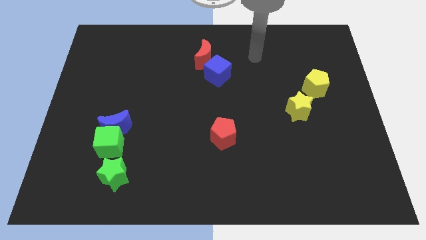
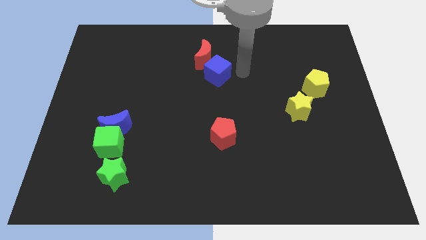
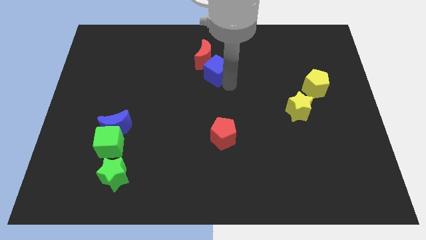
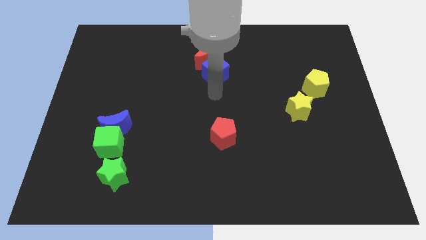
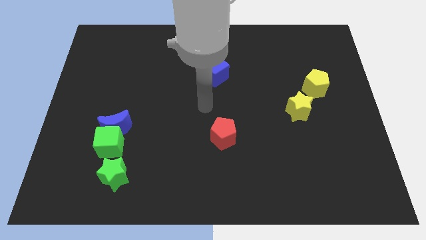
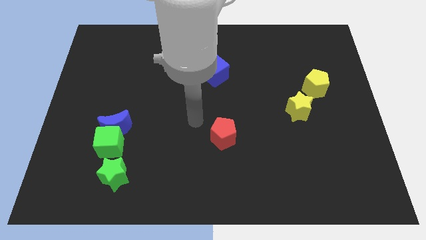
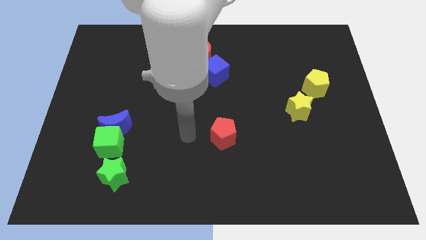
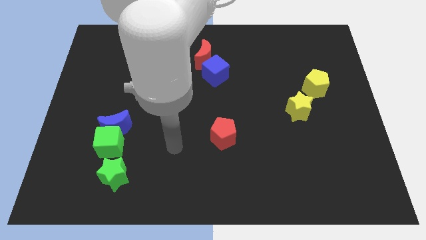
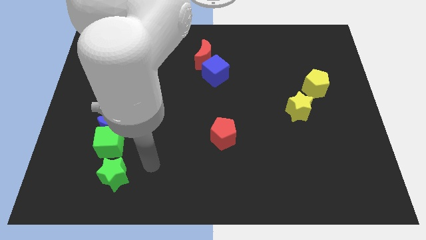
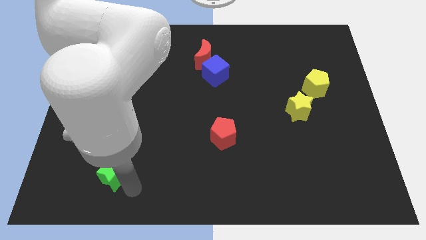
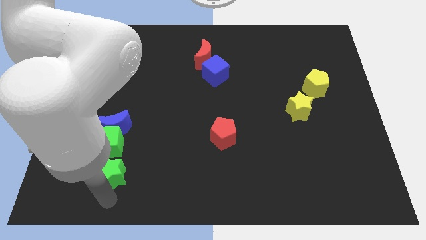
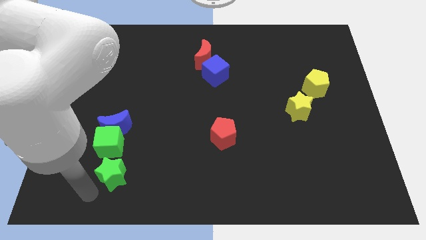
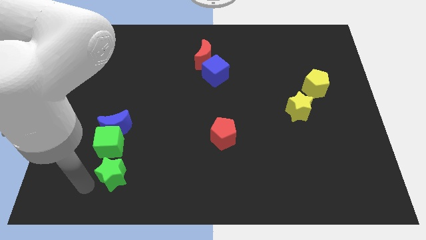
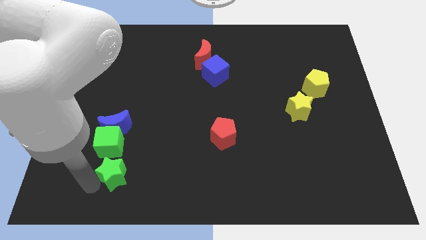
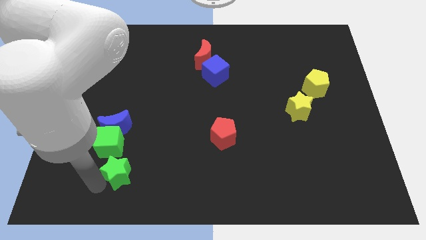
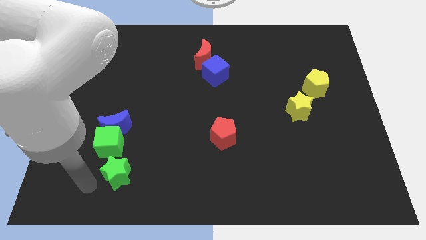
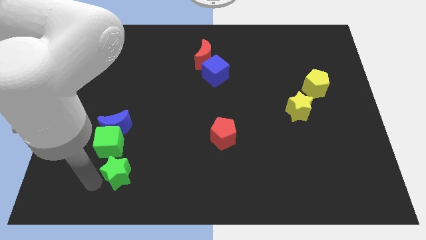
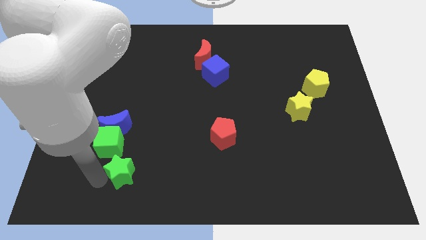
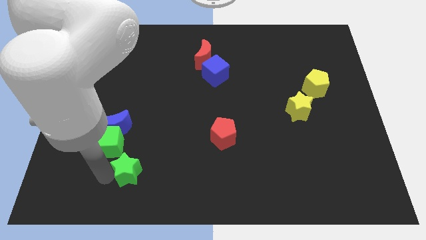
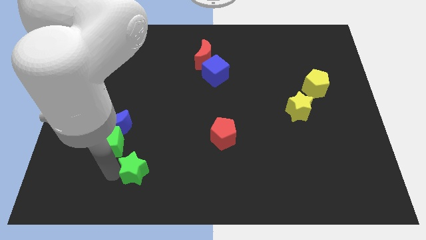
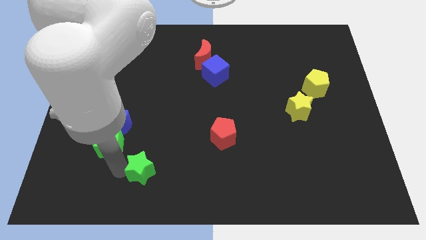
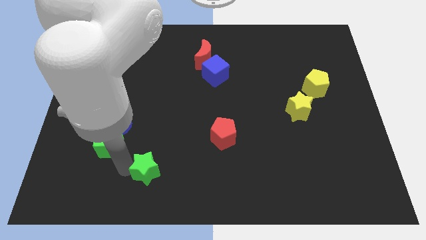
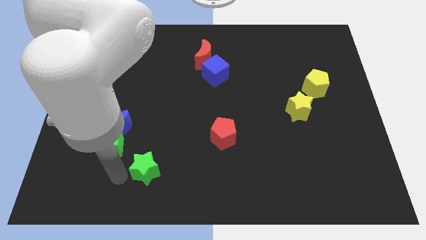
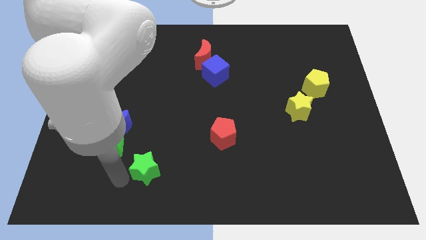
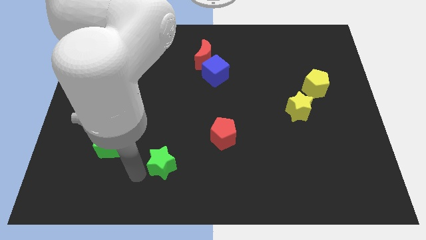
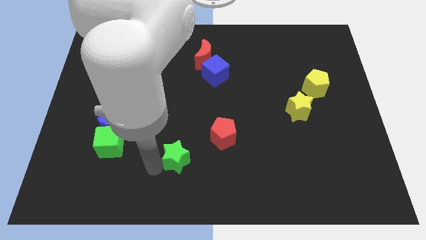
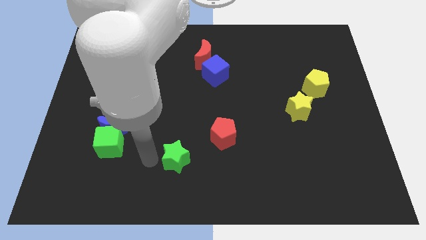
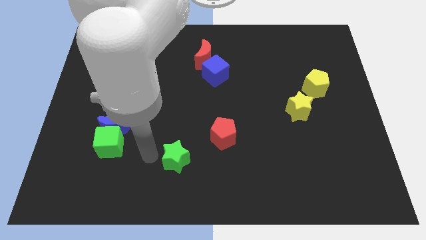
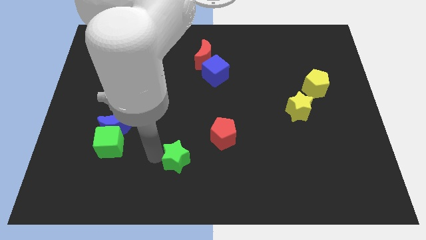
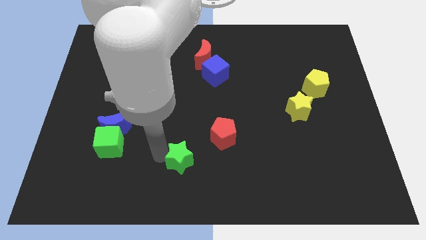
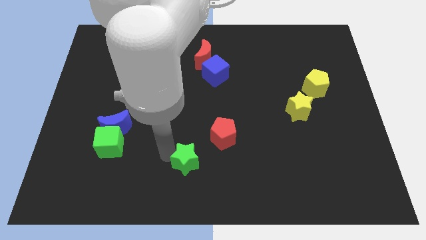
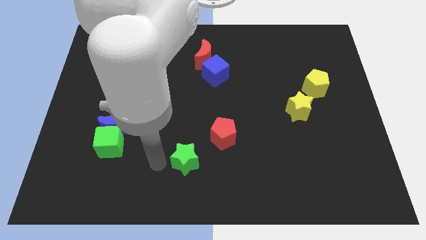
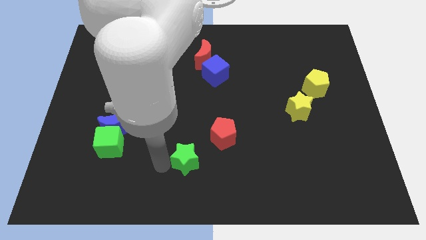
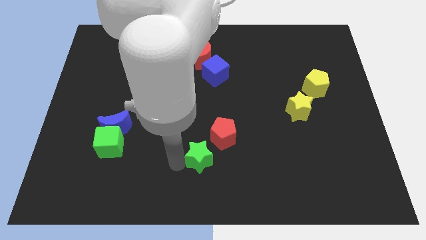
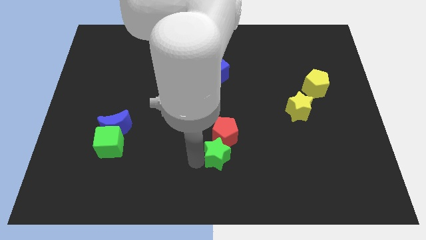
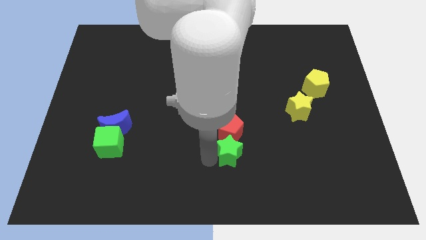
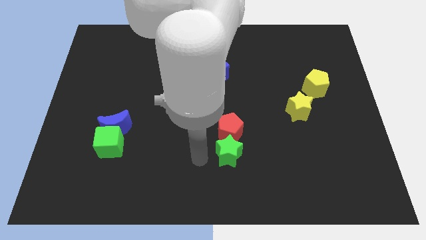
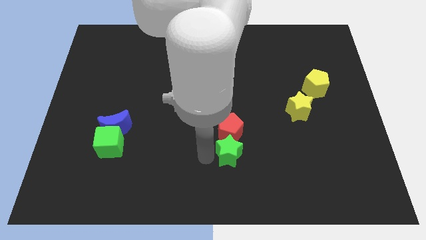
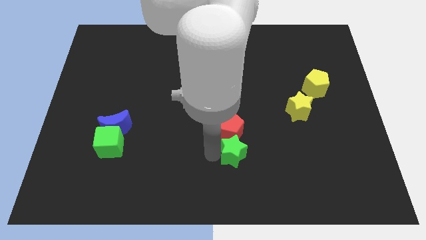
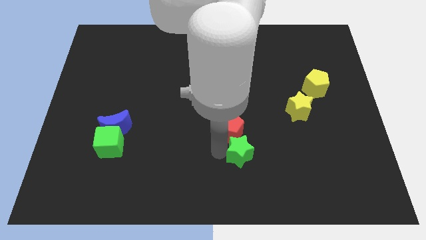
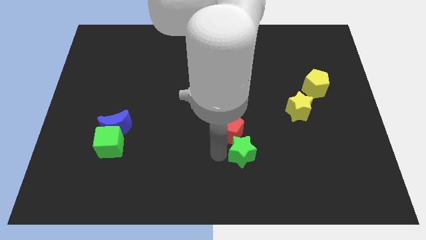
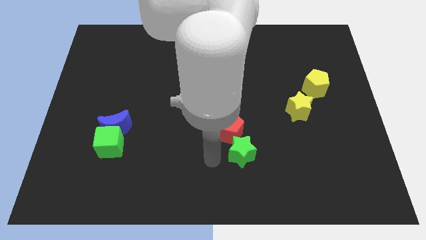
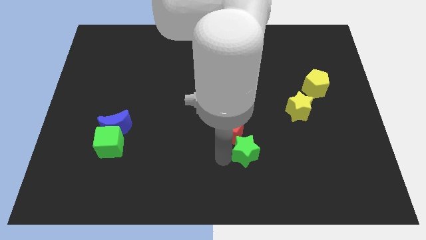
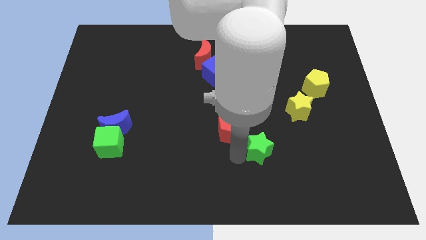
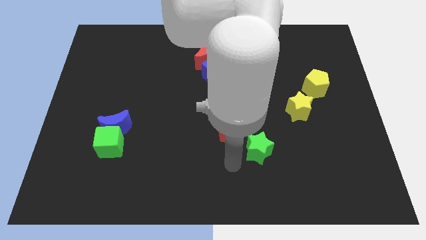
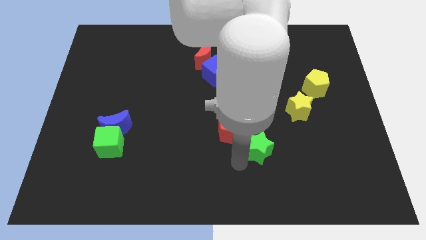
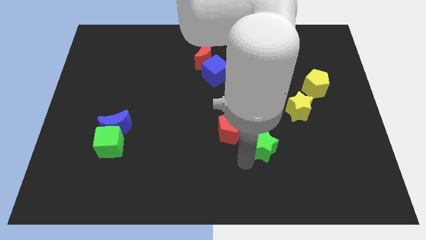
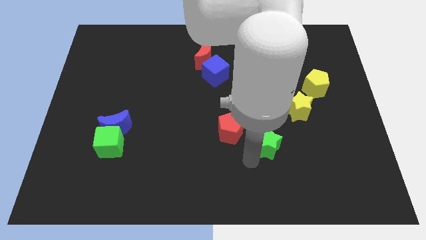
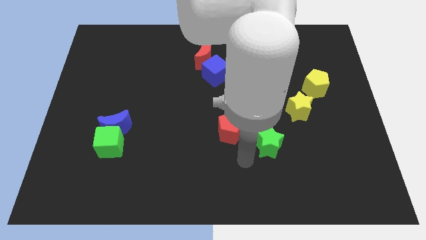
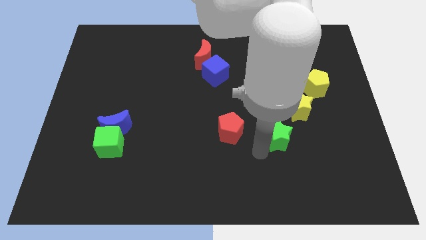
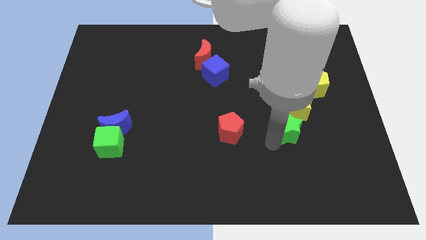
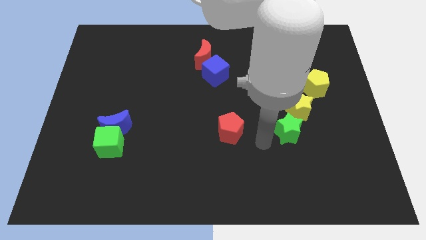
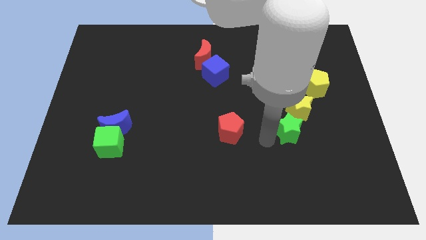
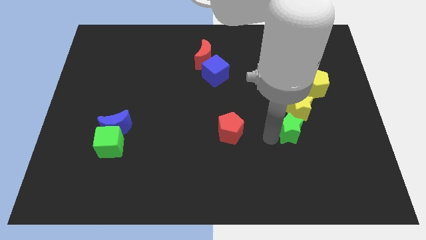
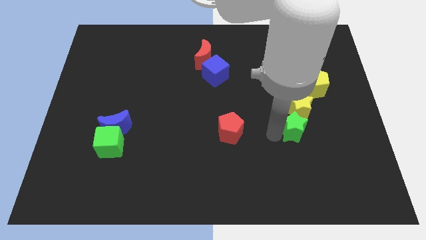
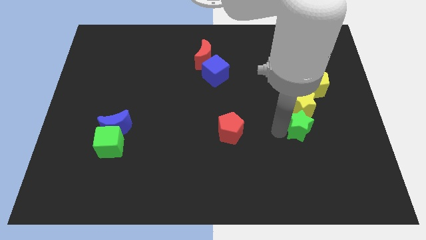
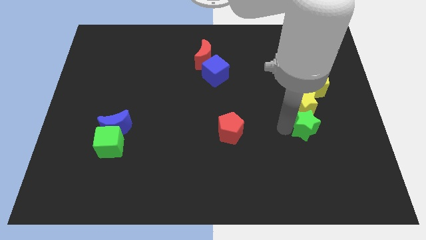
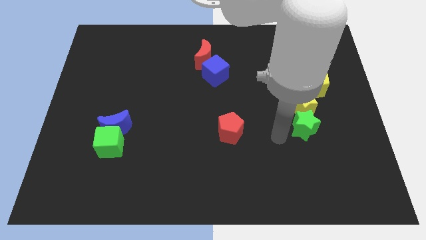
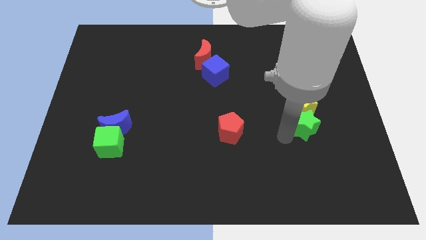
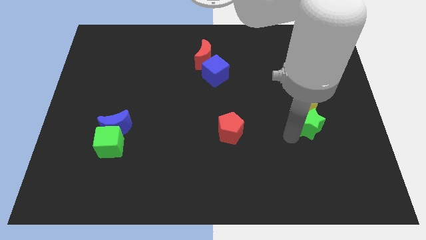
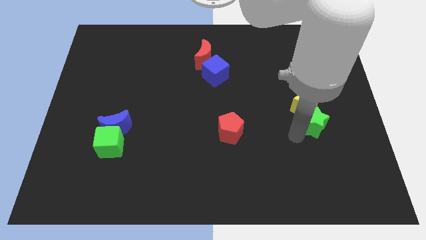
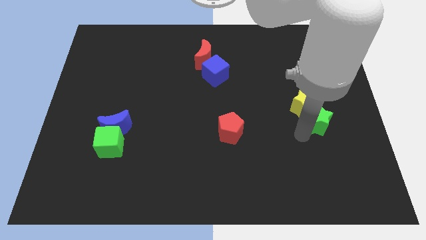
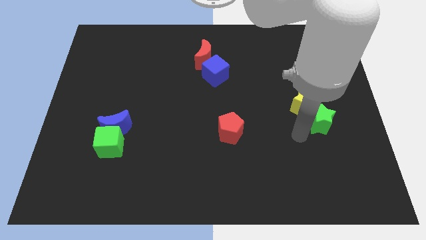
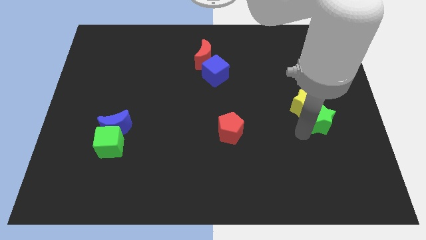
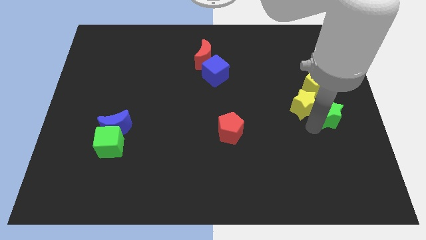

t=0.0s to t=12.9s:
push the green star to the right side of the board
